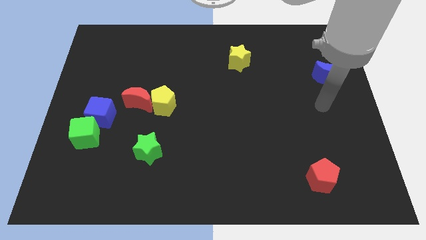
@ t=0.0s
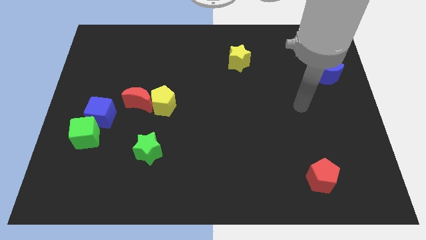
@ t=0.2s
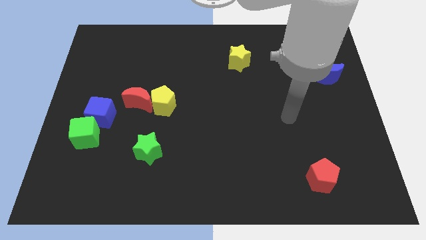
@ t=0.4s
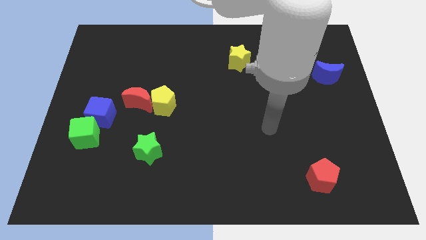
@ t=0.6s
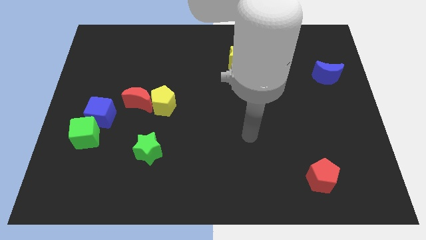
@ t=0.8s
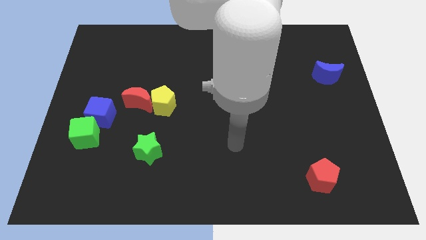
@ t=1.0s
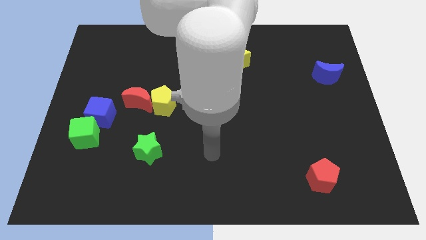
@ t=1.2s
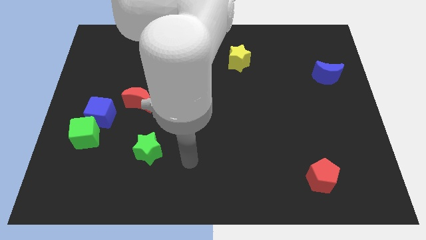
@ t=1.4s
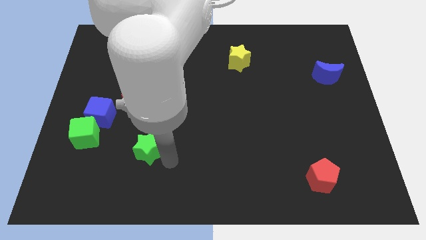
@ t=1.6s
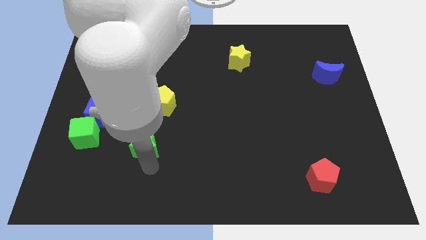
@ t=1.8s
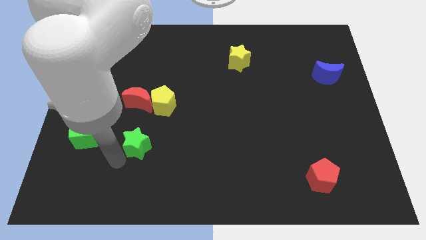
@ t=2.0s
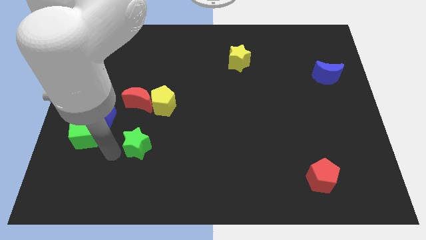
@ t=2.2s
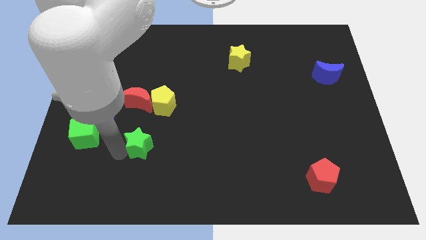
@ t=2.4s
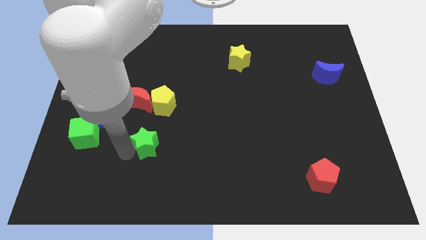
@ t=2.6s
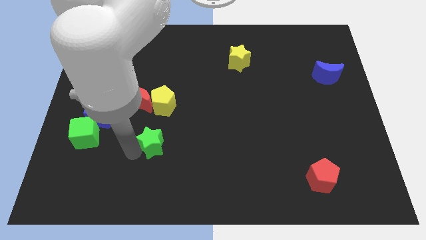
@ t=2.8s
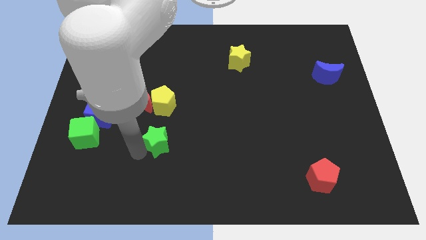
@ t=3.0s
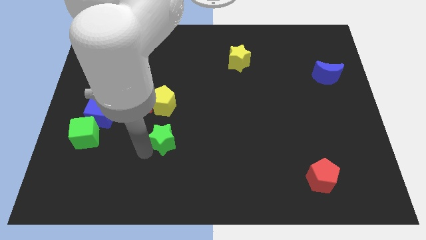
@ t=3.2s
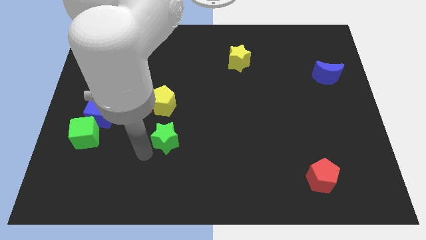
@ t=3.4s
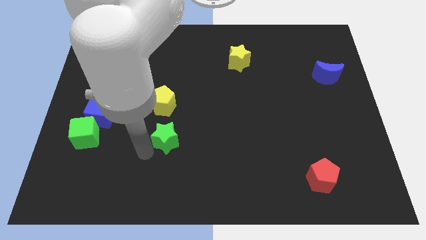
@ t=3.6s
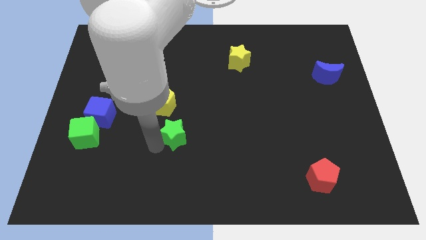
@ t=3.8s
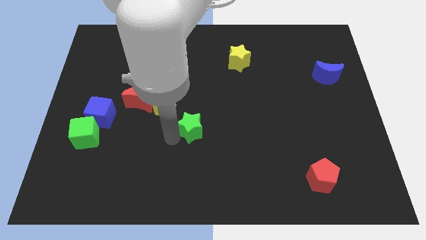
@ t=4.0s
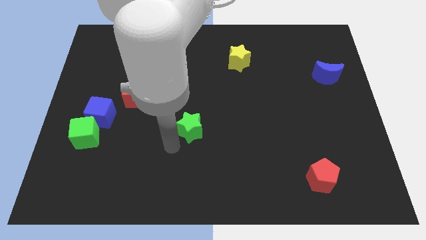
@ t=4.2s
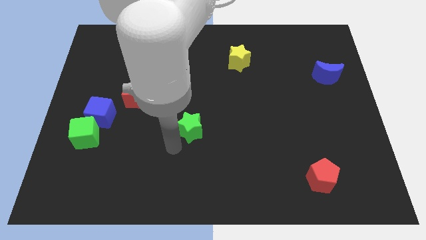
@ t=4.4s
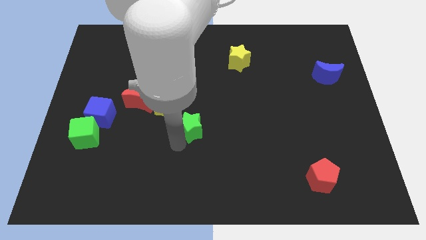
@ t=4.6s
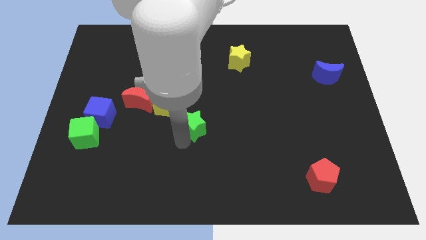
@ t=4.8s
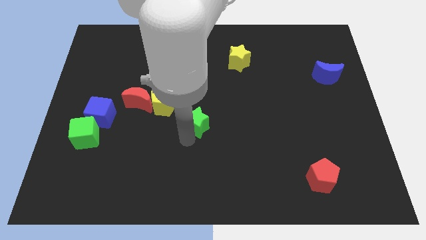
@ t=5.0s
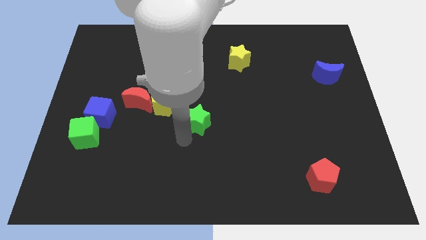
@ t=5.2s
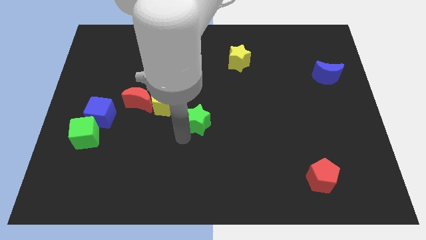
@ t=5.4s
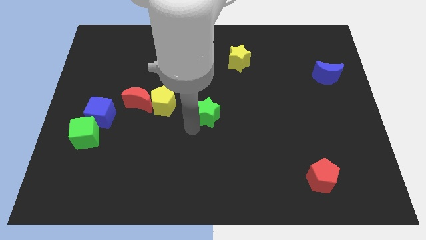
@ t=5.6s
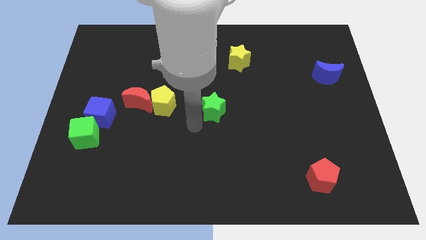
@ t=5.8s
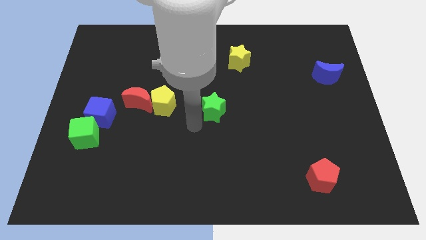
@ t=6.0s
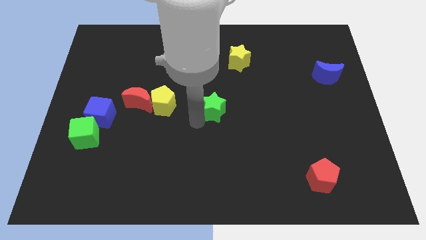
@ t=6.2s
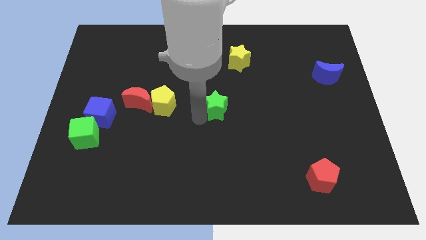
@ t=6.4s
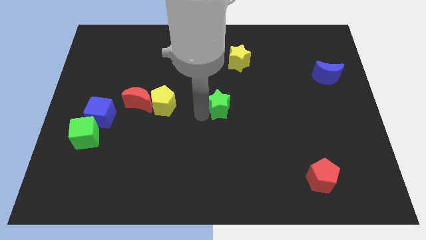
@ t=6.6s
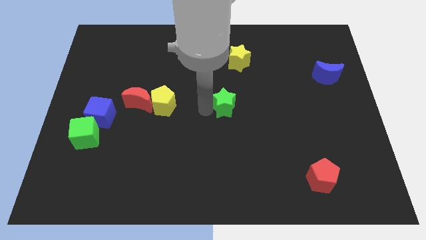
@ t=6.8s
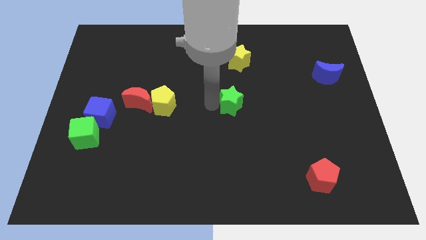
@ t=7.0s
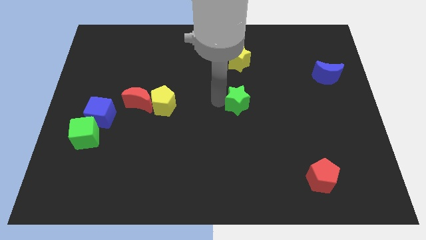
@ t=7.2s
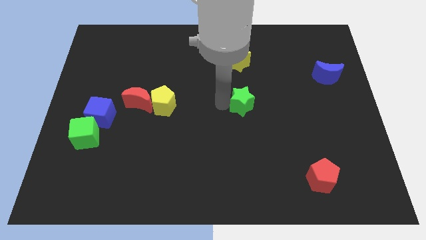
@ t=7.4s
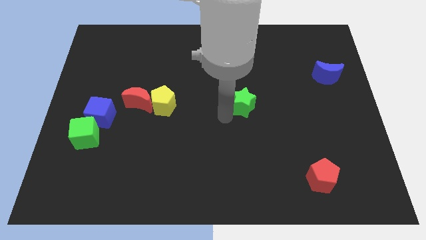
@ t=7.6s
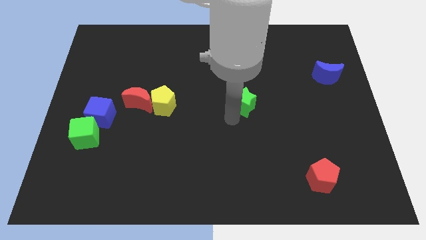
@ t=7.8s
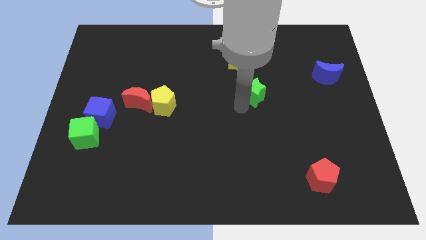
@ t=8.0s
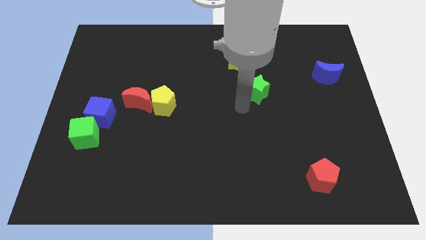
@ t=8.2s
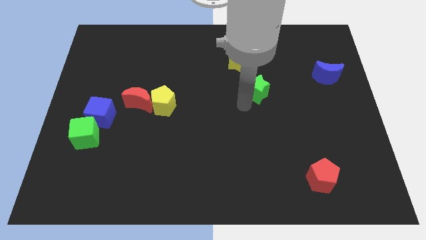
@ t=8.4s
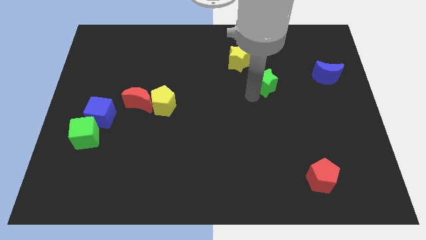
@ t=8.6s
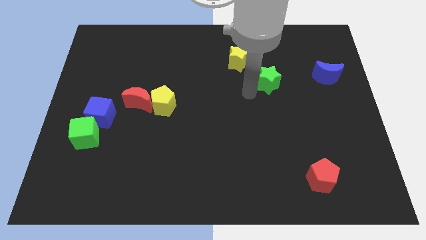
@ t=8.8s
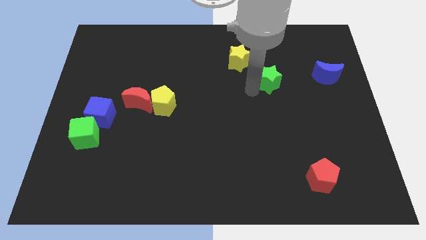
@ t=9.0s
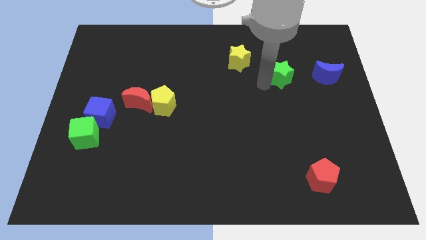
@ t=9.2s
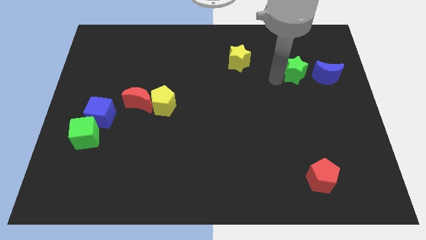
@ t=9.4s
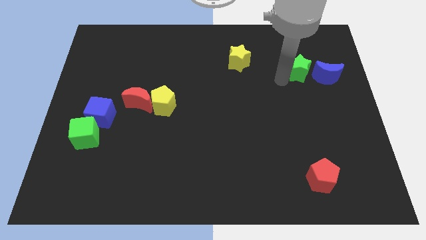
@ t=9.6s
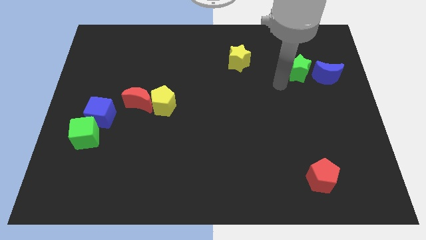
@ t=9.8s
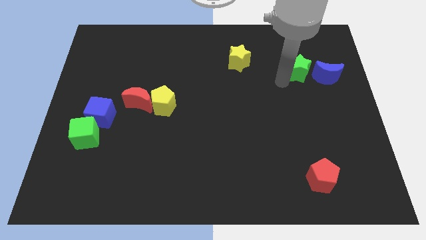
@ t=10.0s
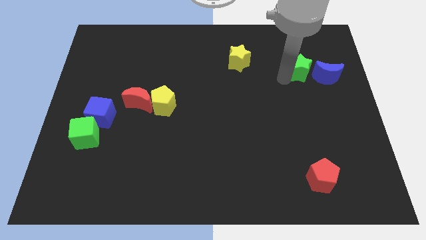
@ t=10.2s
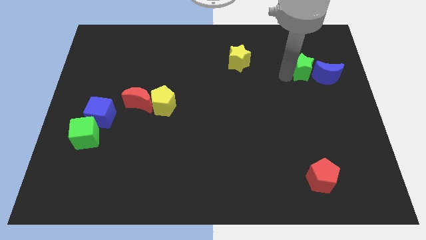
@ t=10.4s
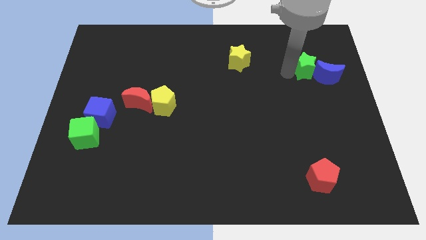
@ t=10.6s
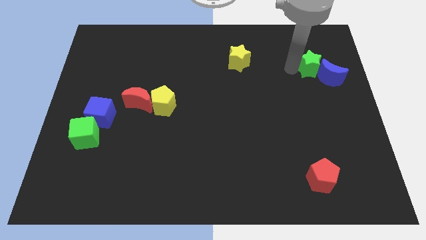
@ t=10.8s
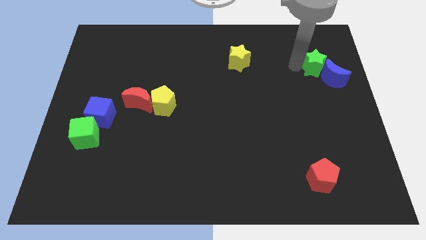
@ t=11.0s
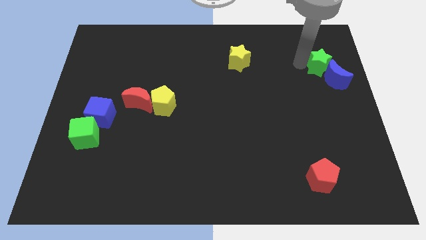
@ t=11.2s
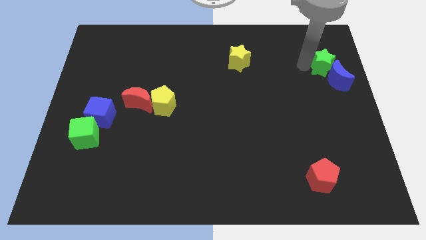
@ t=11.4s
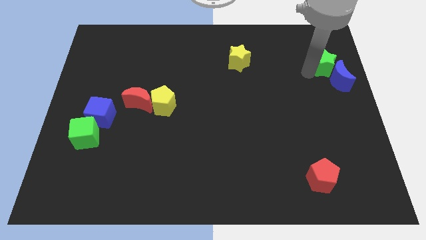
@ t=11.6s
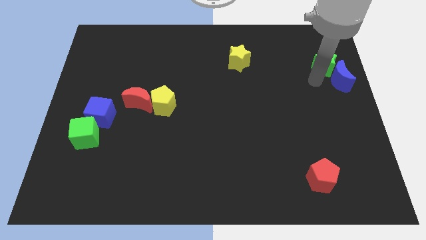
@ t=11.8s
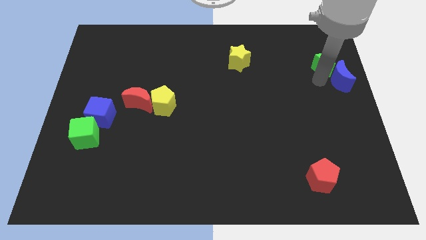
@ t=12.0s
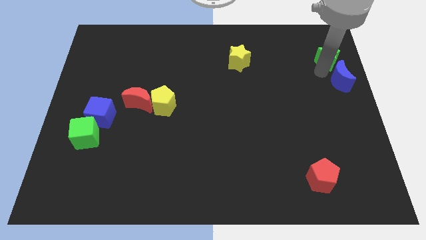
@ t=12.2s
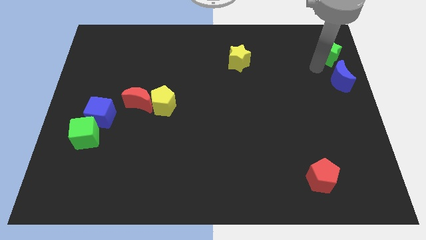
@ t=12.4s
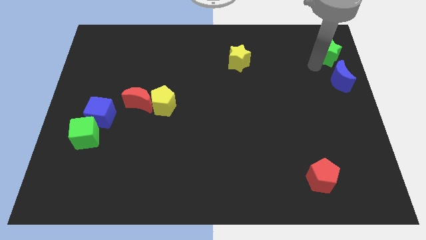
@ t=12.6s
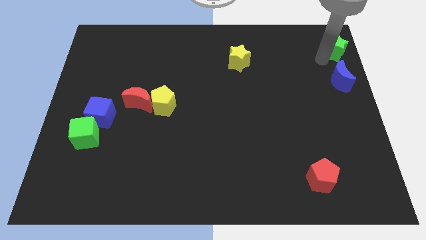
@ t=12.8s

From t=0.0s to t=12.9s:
push the green star to the top right of the board
